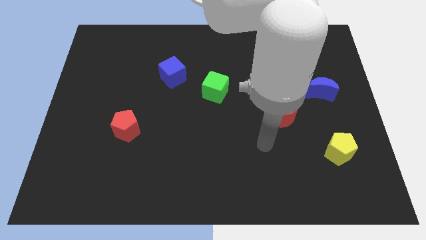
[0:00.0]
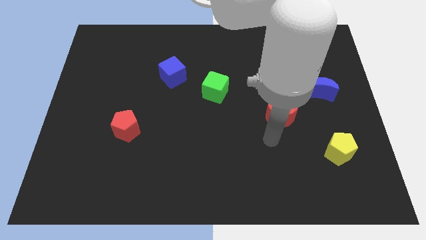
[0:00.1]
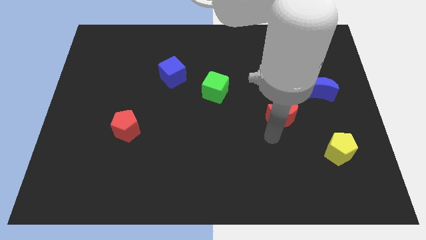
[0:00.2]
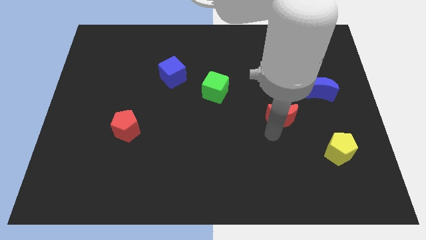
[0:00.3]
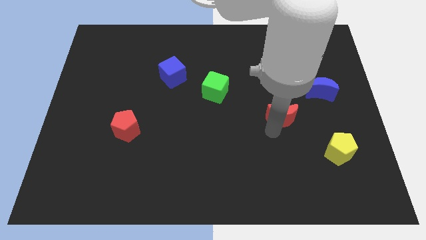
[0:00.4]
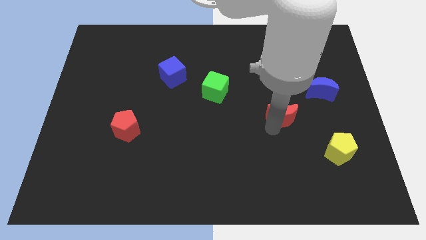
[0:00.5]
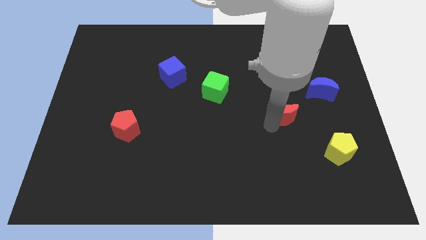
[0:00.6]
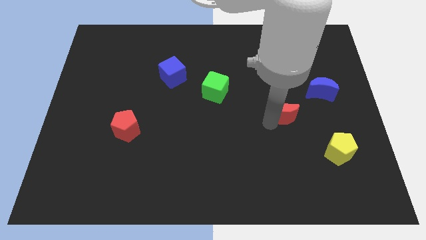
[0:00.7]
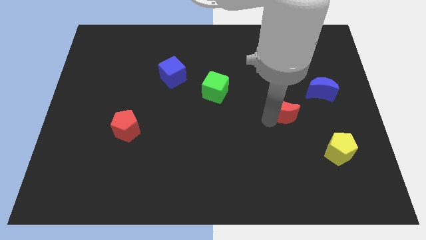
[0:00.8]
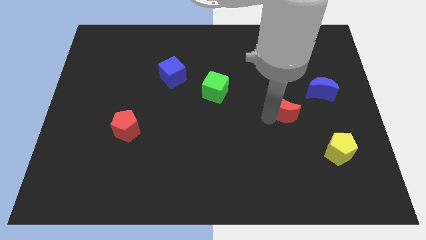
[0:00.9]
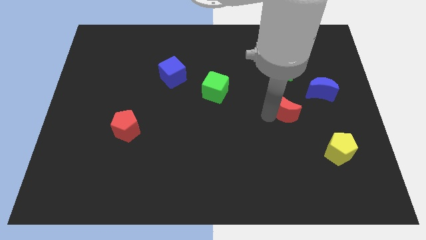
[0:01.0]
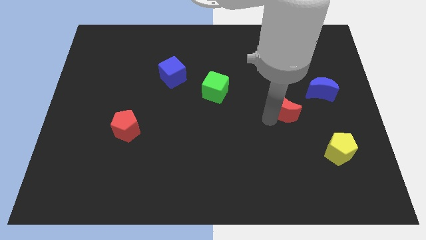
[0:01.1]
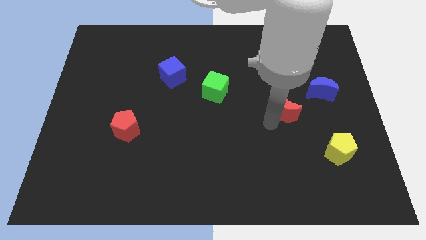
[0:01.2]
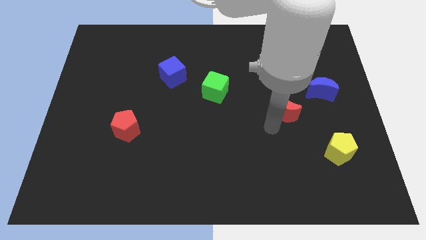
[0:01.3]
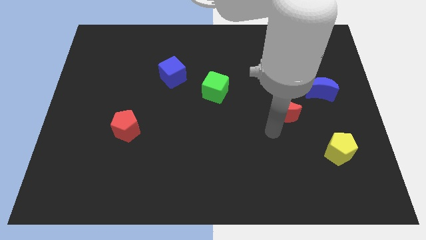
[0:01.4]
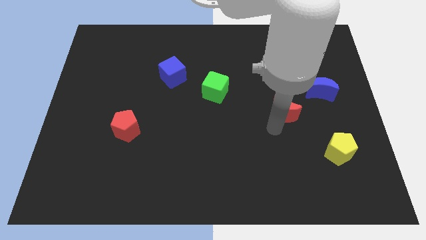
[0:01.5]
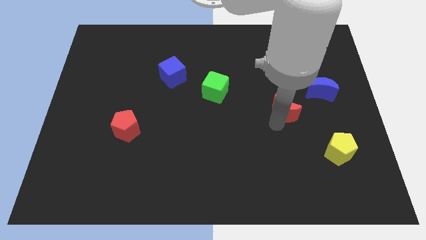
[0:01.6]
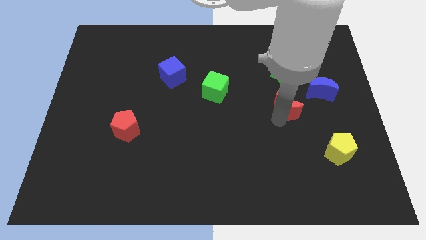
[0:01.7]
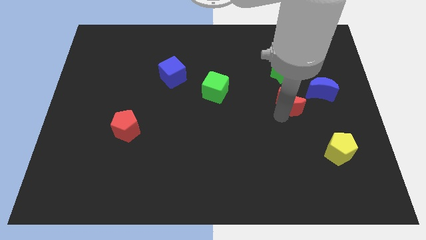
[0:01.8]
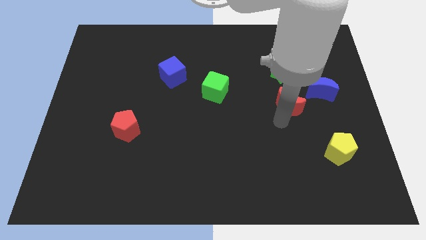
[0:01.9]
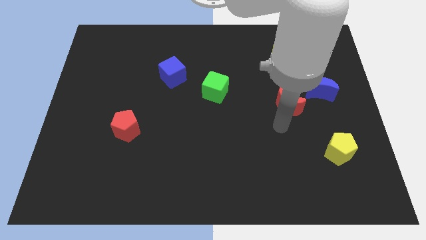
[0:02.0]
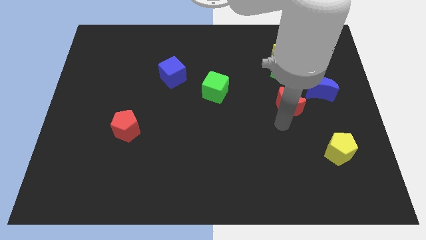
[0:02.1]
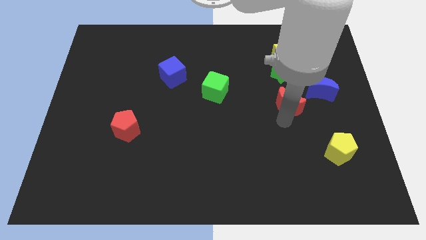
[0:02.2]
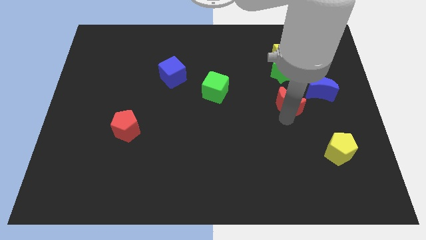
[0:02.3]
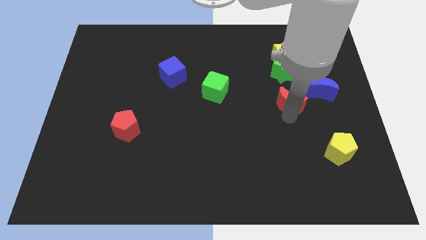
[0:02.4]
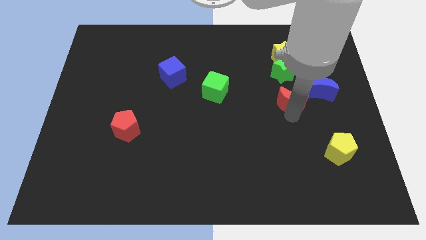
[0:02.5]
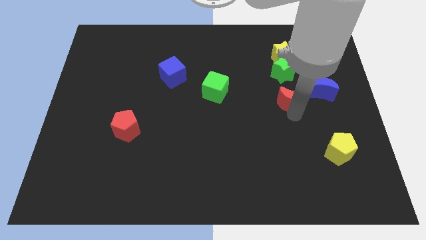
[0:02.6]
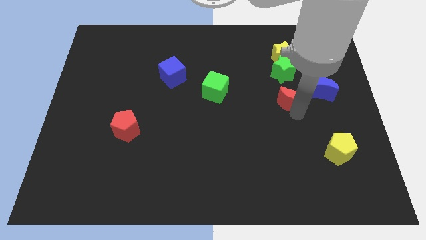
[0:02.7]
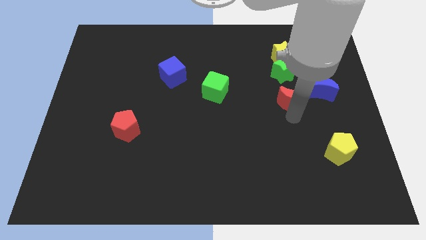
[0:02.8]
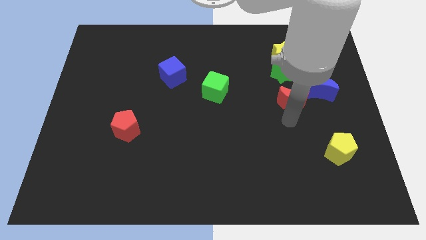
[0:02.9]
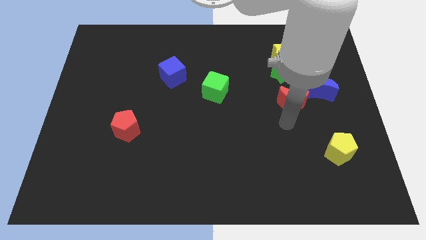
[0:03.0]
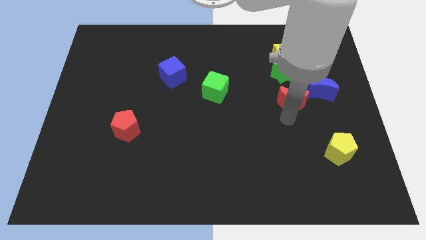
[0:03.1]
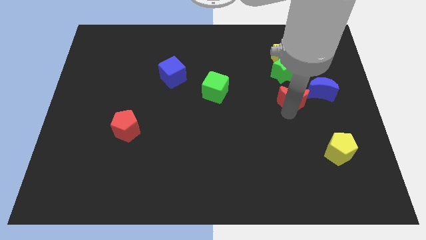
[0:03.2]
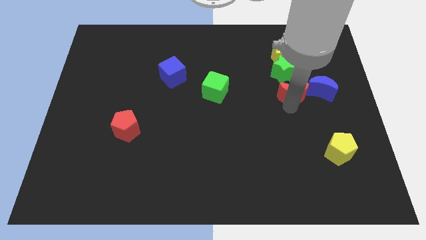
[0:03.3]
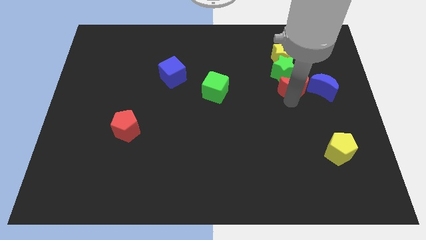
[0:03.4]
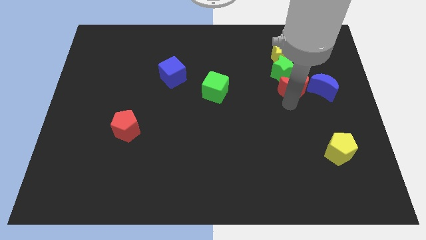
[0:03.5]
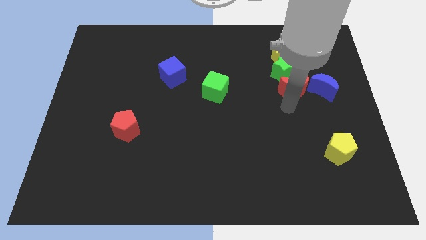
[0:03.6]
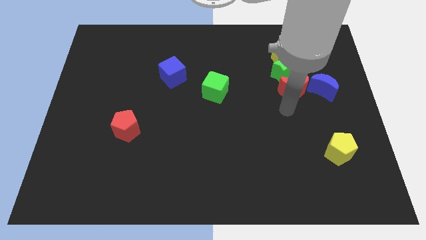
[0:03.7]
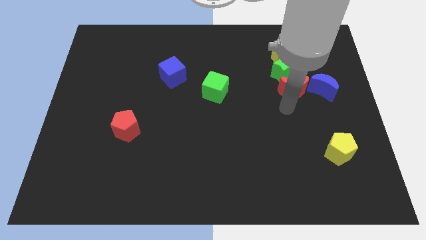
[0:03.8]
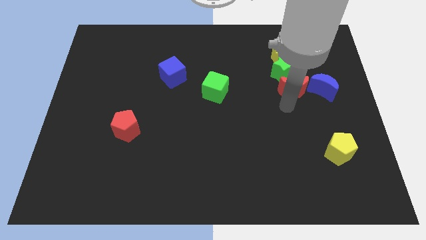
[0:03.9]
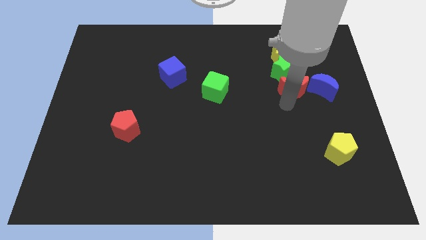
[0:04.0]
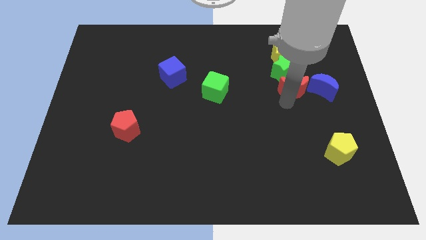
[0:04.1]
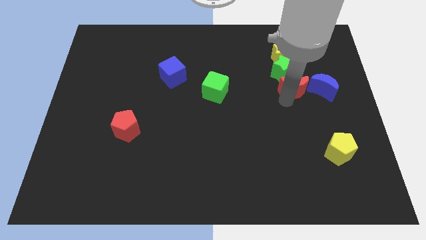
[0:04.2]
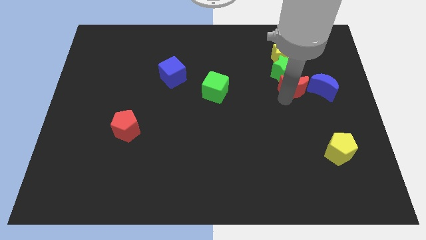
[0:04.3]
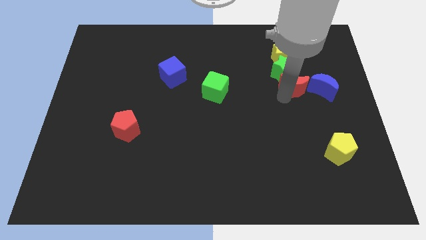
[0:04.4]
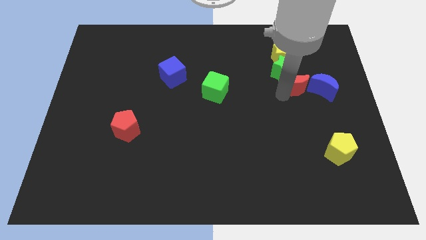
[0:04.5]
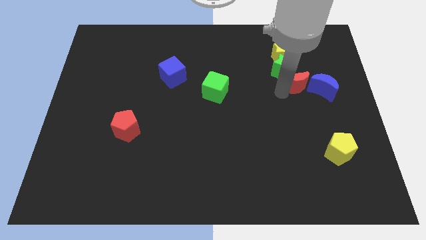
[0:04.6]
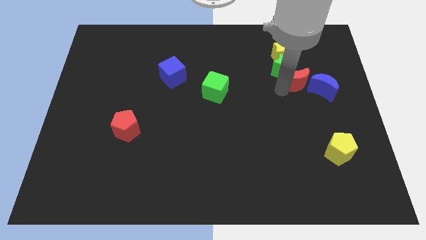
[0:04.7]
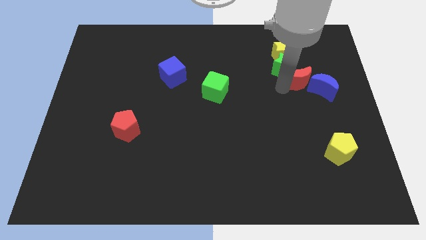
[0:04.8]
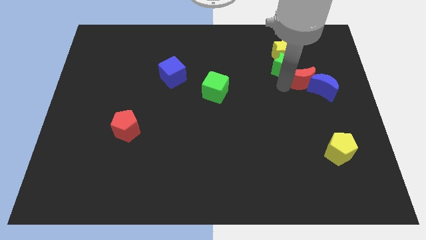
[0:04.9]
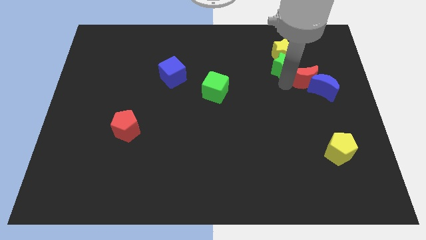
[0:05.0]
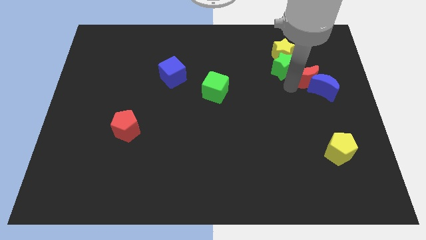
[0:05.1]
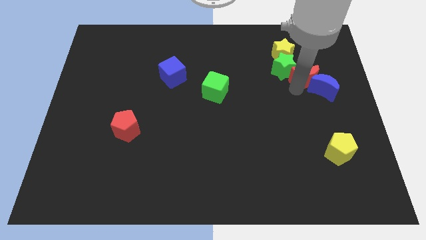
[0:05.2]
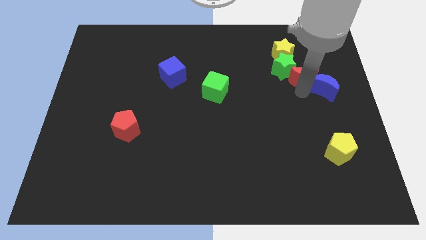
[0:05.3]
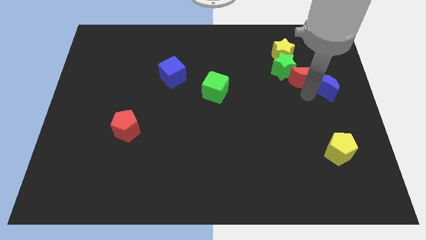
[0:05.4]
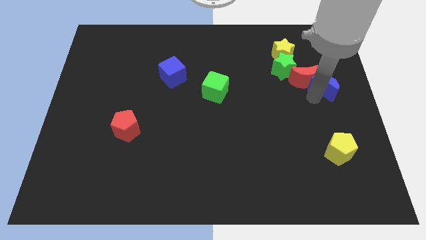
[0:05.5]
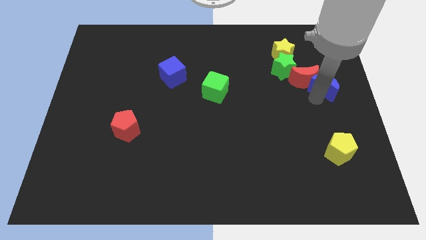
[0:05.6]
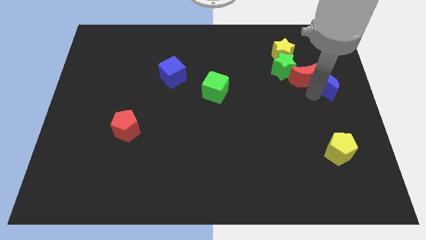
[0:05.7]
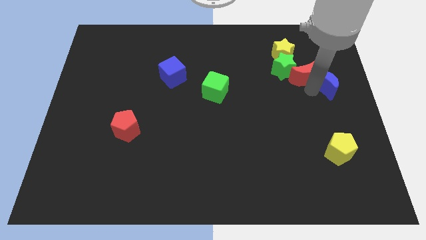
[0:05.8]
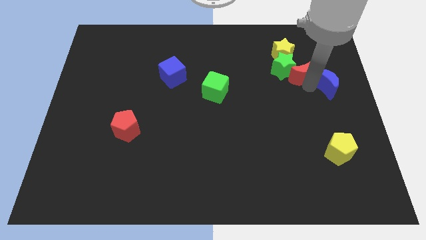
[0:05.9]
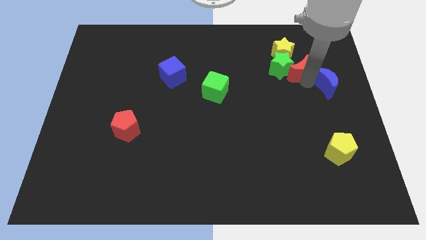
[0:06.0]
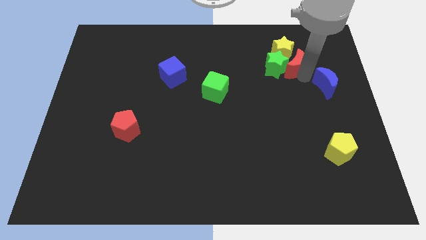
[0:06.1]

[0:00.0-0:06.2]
put the red moon close to the yellow star
